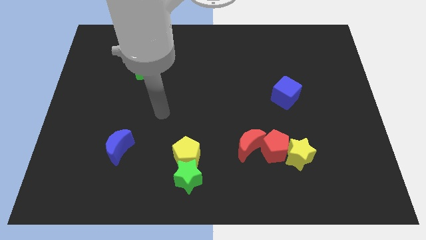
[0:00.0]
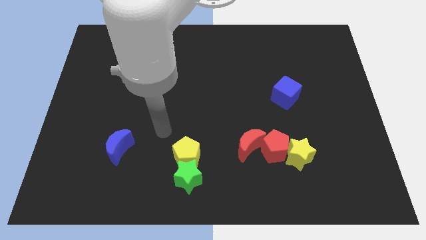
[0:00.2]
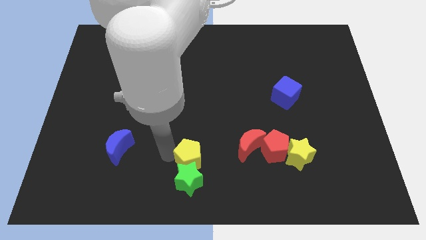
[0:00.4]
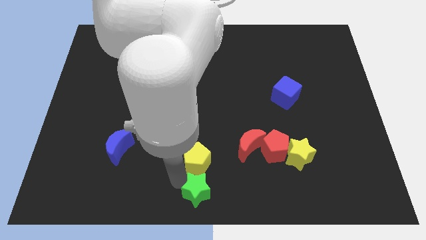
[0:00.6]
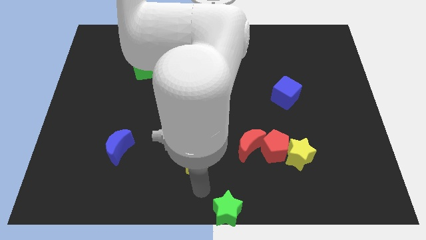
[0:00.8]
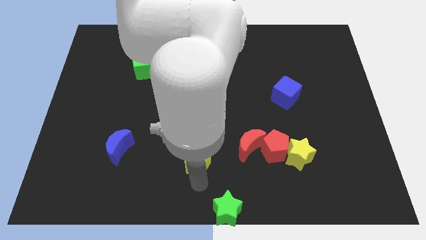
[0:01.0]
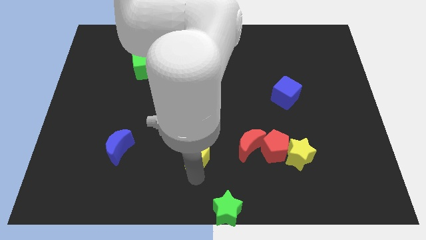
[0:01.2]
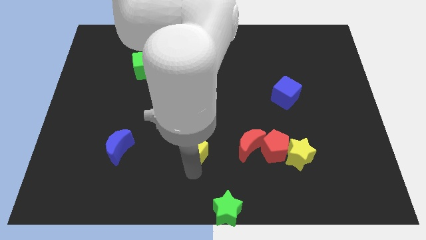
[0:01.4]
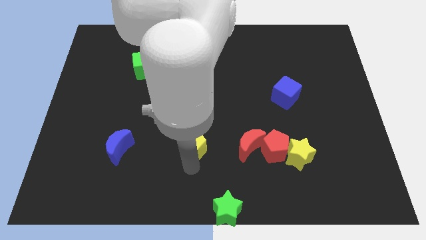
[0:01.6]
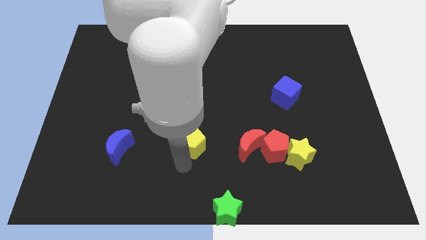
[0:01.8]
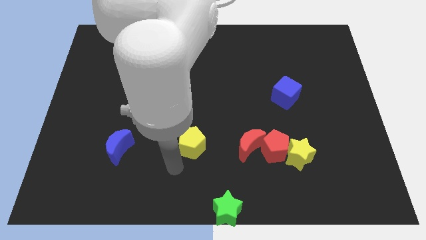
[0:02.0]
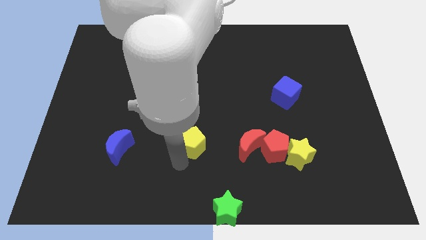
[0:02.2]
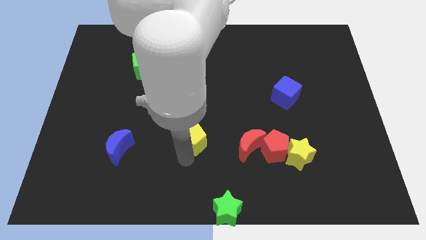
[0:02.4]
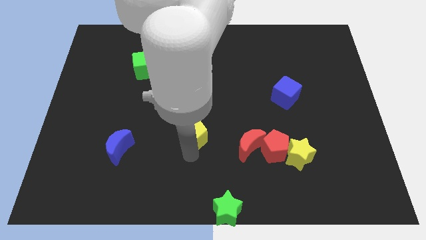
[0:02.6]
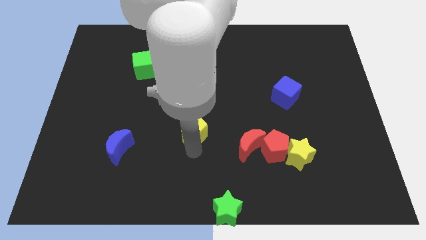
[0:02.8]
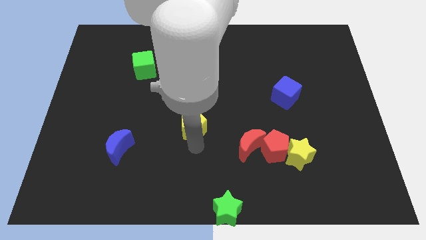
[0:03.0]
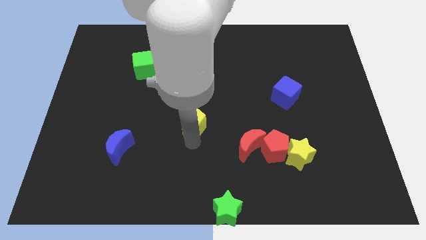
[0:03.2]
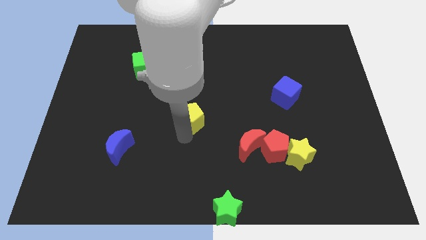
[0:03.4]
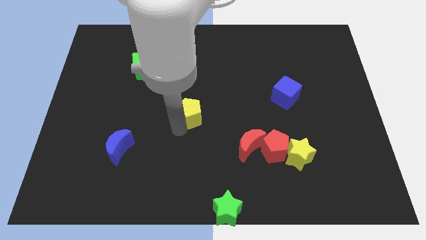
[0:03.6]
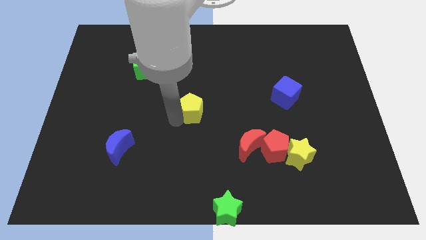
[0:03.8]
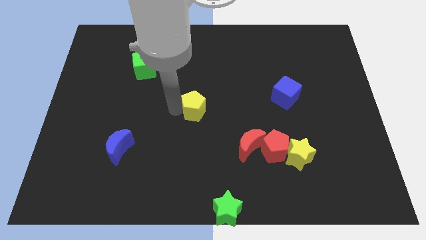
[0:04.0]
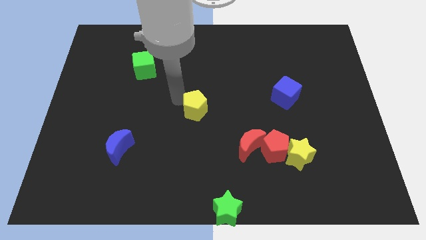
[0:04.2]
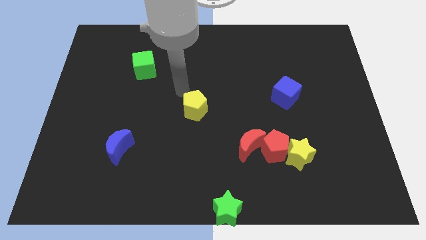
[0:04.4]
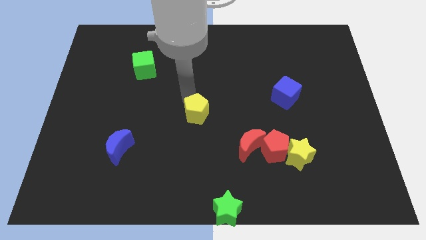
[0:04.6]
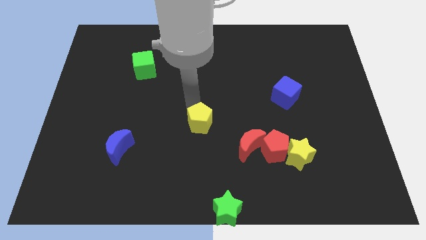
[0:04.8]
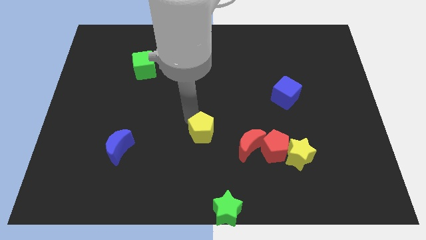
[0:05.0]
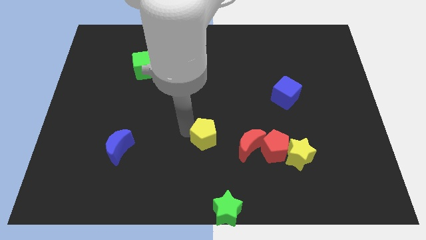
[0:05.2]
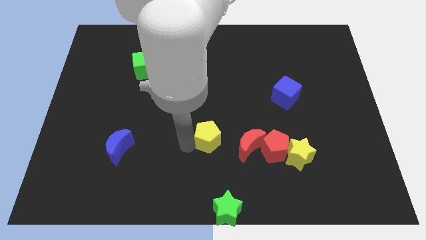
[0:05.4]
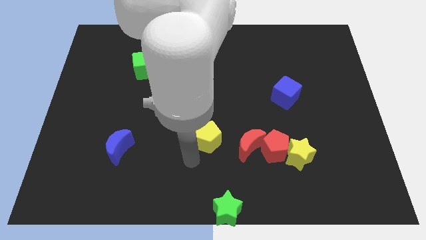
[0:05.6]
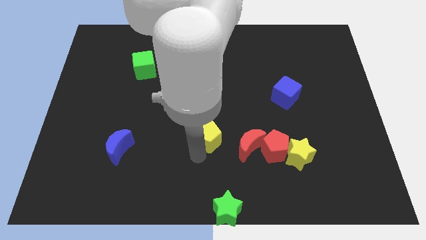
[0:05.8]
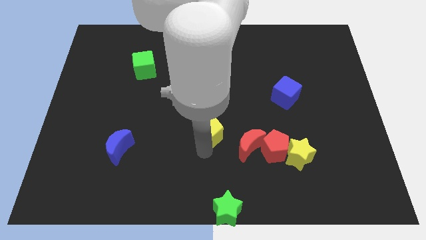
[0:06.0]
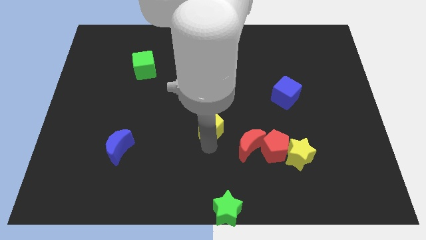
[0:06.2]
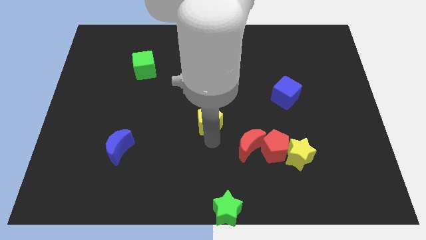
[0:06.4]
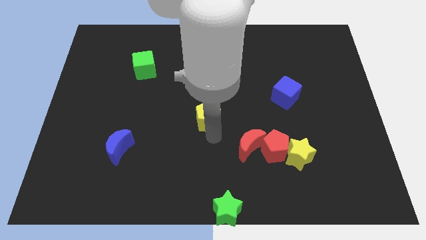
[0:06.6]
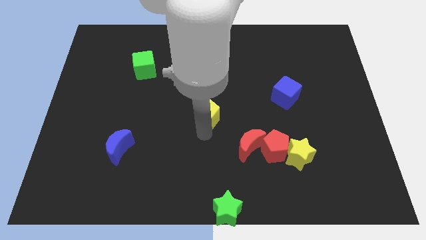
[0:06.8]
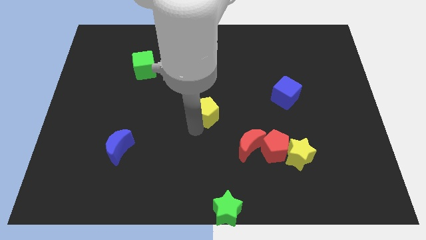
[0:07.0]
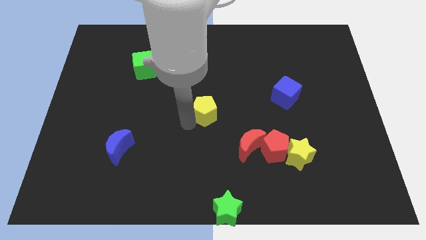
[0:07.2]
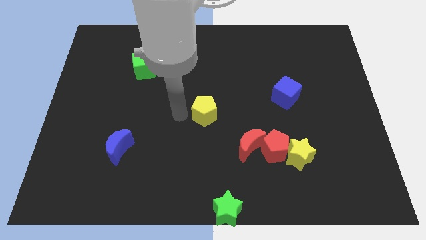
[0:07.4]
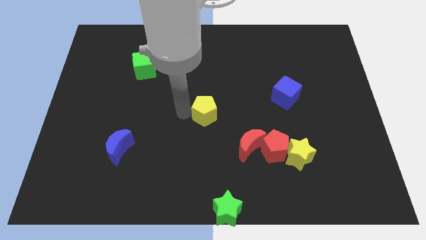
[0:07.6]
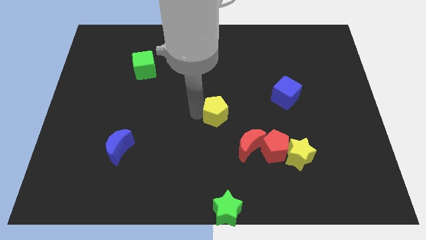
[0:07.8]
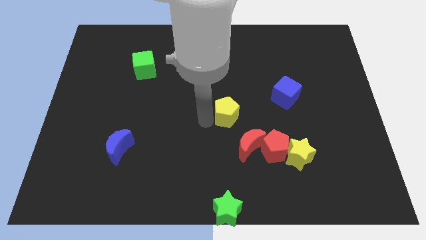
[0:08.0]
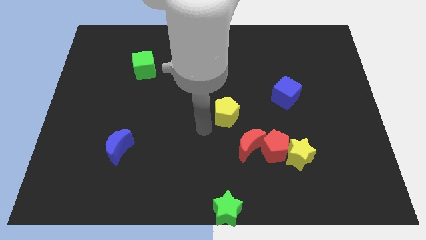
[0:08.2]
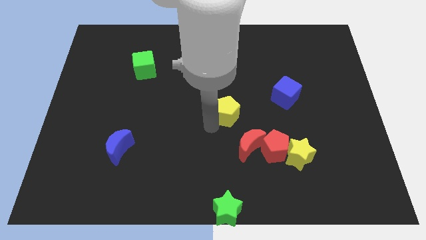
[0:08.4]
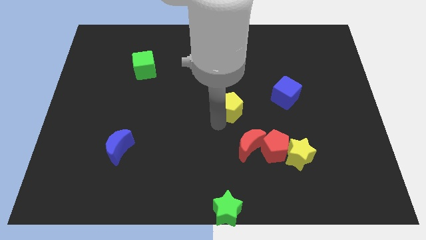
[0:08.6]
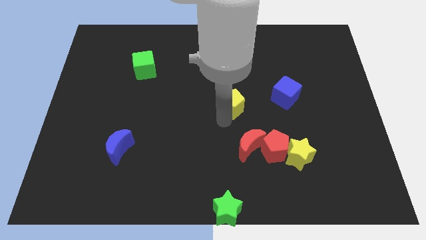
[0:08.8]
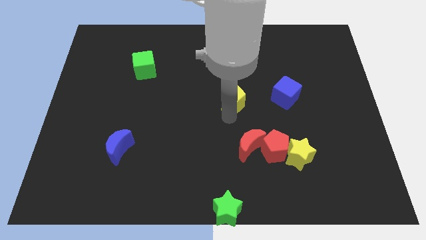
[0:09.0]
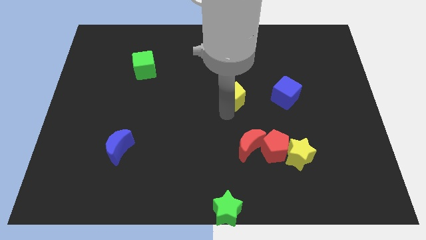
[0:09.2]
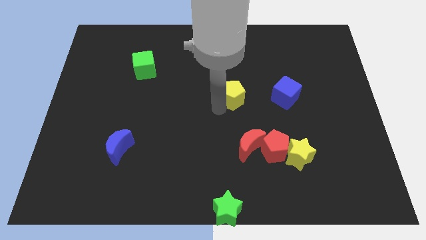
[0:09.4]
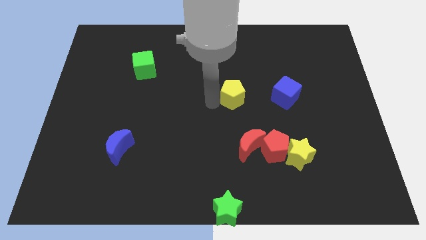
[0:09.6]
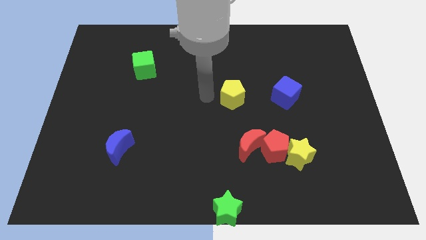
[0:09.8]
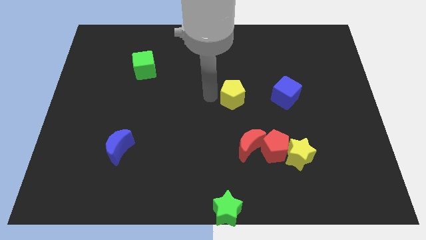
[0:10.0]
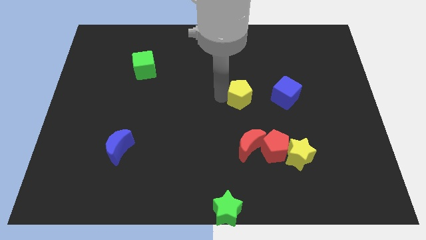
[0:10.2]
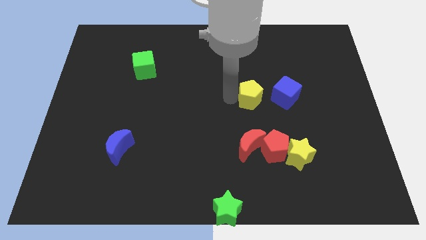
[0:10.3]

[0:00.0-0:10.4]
move the yellow pentagon upwards and right

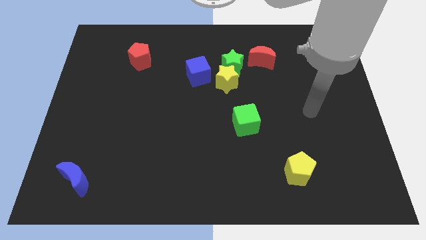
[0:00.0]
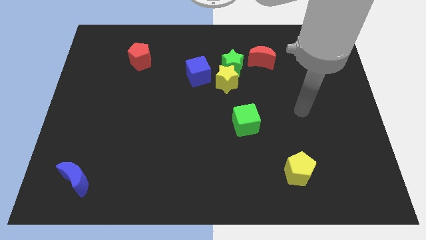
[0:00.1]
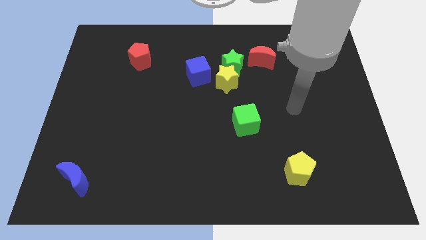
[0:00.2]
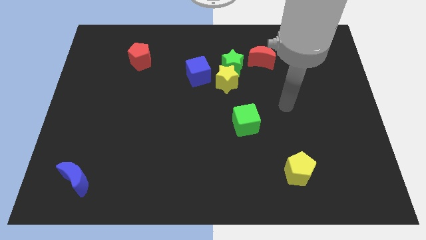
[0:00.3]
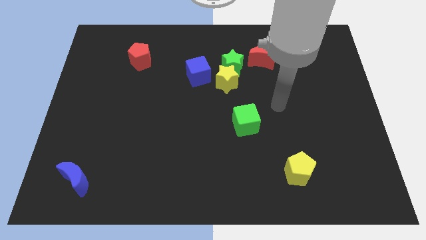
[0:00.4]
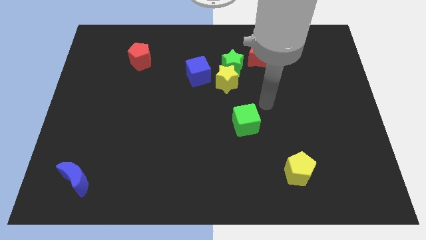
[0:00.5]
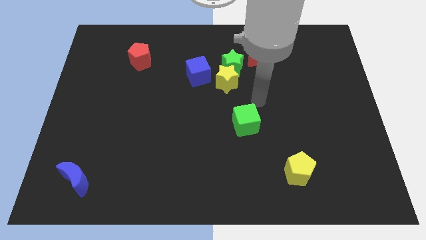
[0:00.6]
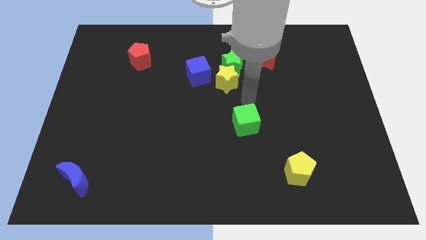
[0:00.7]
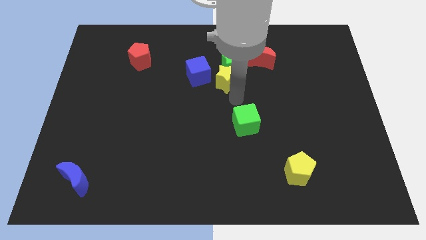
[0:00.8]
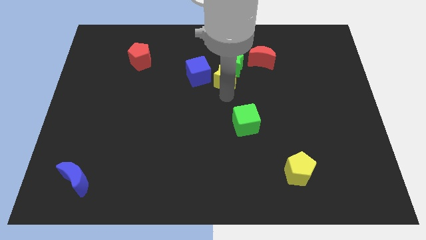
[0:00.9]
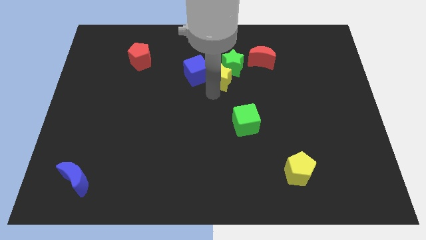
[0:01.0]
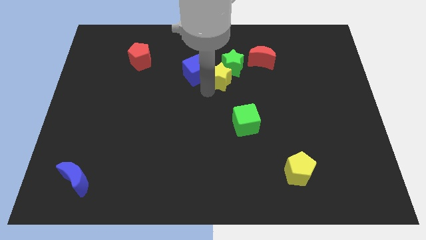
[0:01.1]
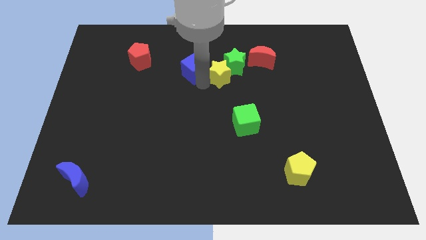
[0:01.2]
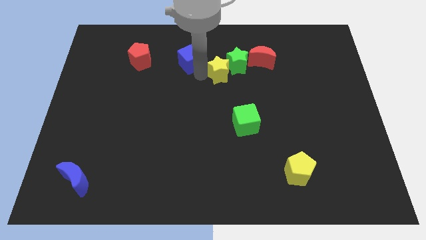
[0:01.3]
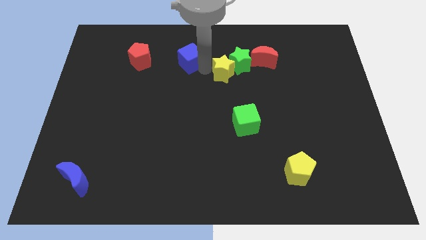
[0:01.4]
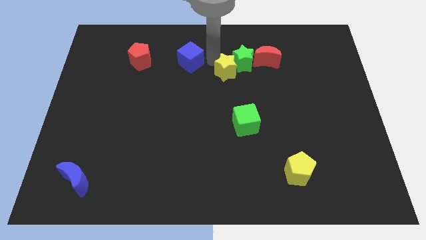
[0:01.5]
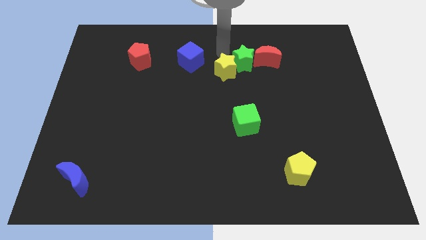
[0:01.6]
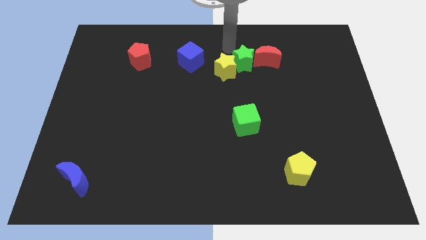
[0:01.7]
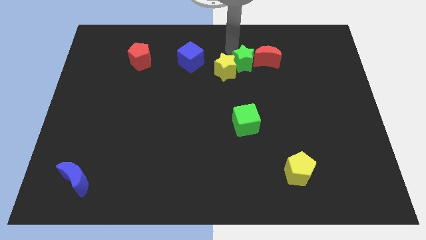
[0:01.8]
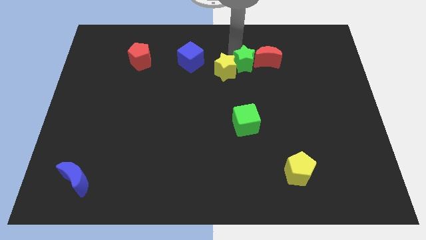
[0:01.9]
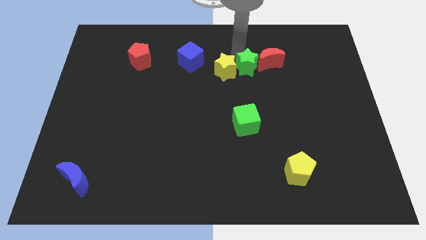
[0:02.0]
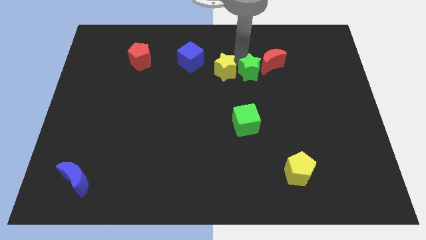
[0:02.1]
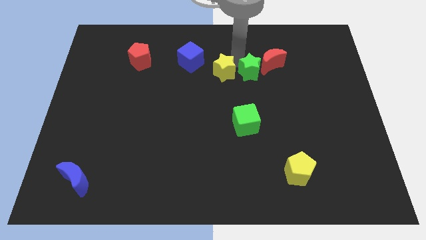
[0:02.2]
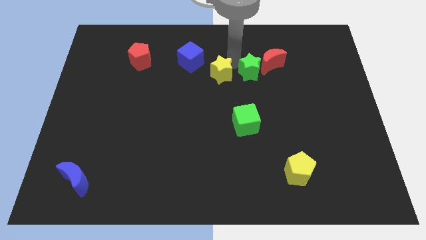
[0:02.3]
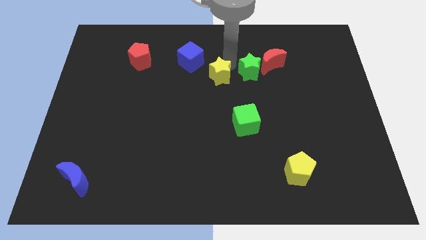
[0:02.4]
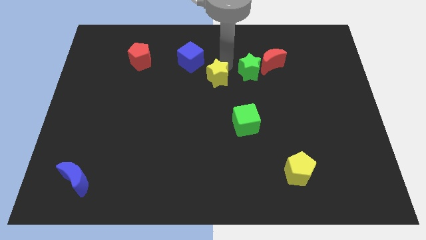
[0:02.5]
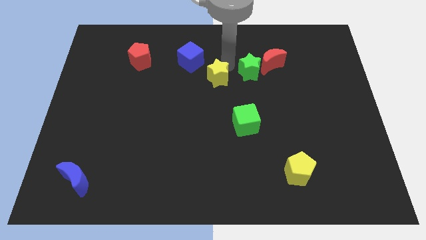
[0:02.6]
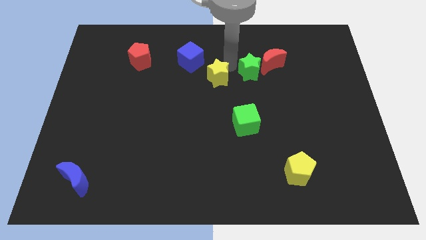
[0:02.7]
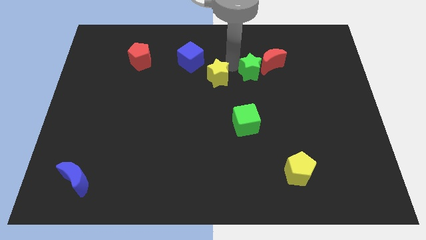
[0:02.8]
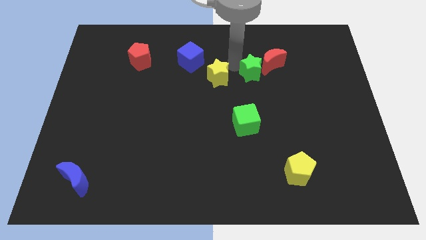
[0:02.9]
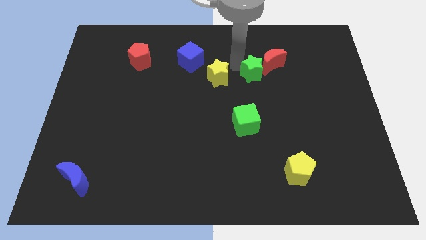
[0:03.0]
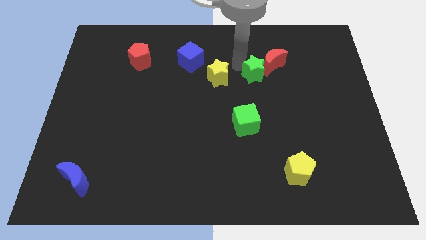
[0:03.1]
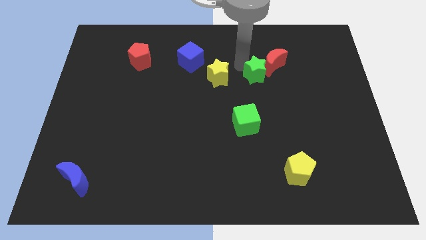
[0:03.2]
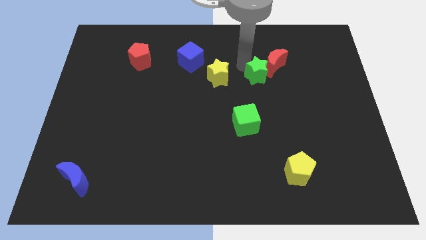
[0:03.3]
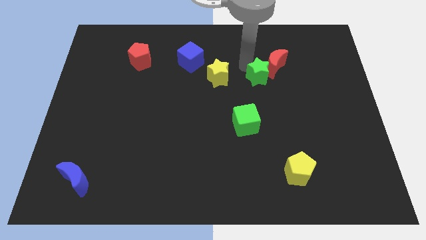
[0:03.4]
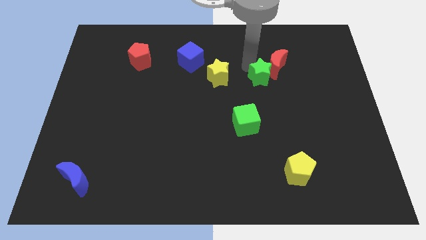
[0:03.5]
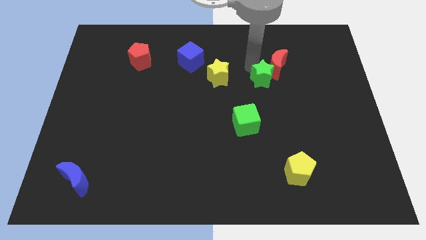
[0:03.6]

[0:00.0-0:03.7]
push the green star a bit right
